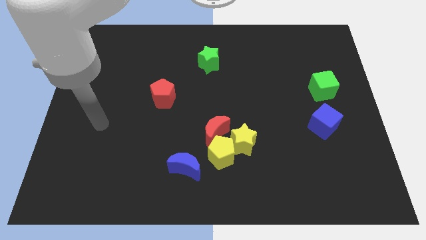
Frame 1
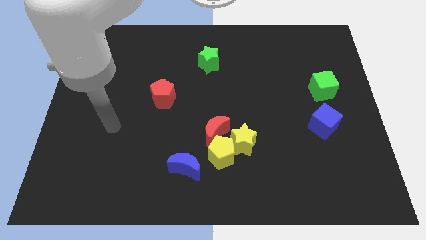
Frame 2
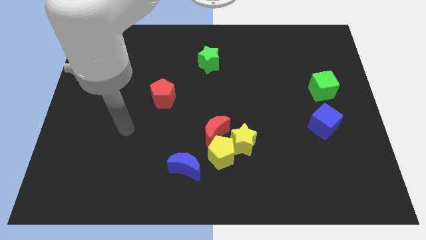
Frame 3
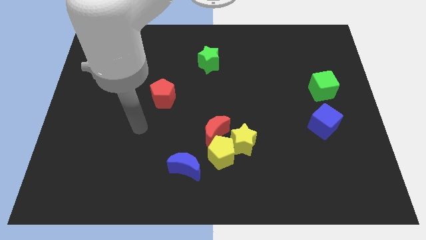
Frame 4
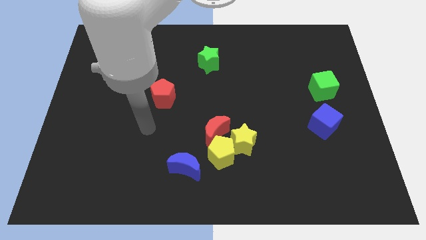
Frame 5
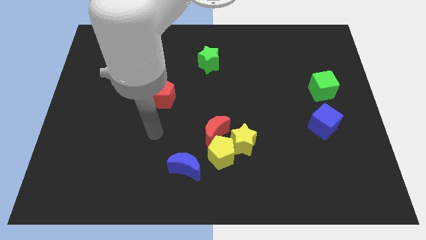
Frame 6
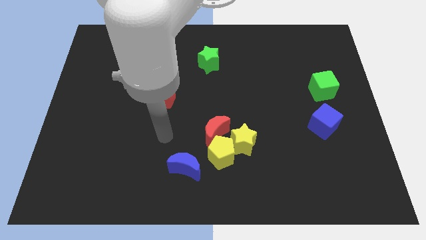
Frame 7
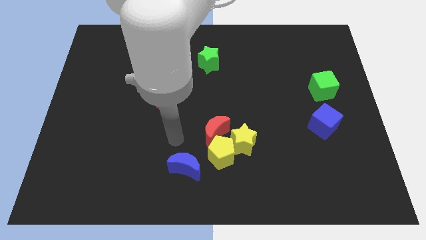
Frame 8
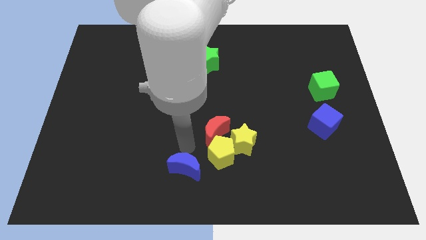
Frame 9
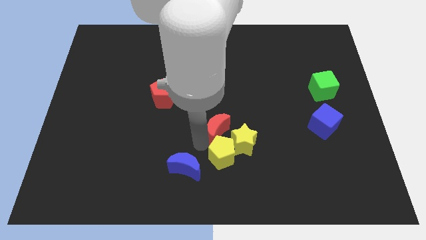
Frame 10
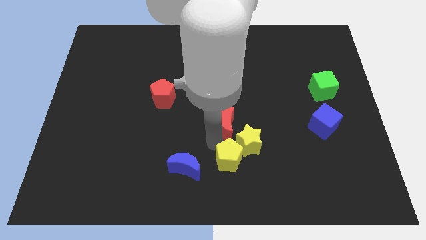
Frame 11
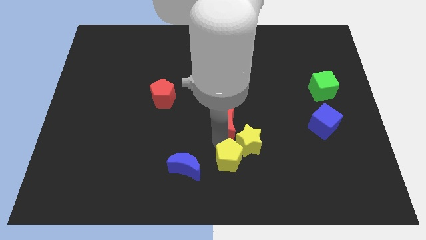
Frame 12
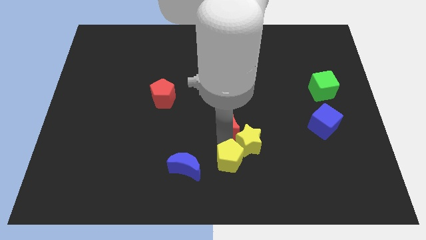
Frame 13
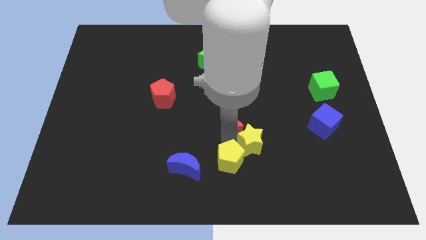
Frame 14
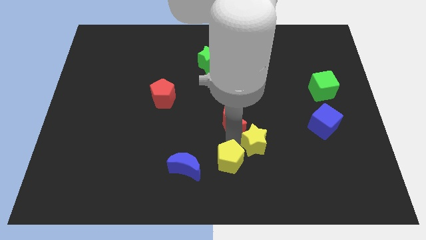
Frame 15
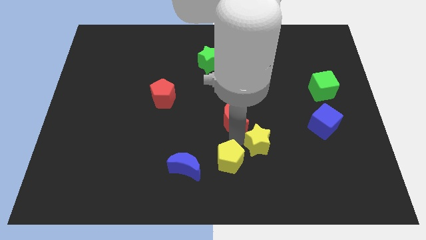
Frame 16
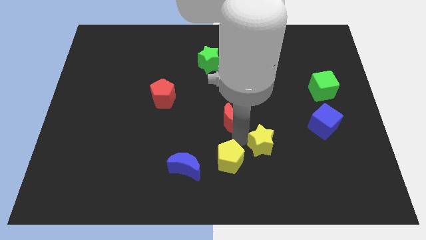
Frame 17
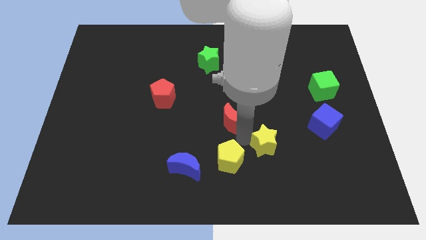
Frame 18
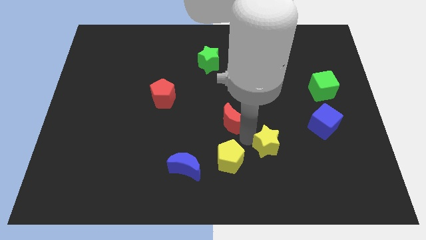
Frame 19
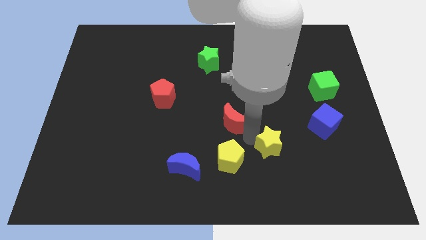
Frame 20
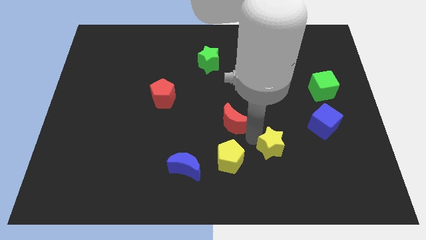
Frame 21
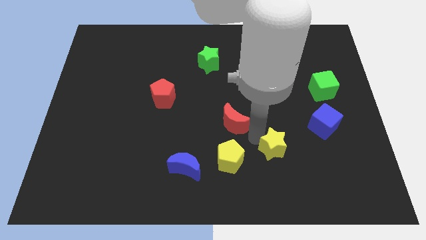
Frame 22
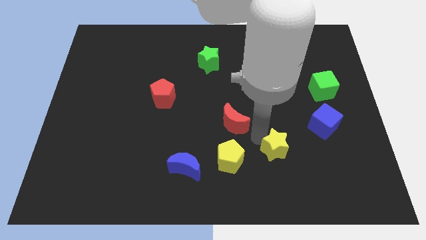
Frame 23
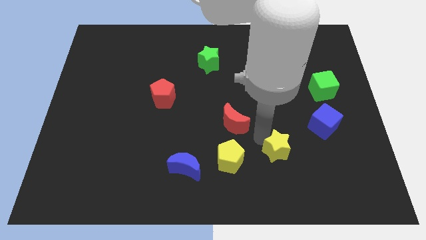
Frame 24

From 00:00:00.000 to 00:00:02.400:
move the yellow star away from the yellow pentagon and red moon

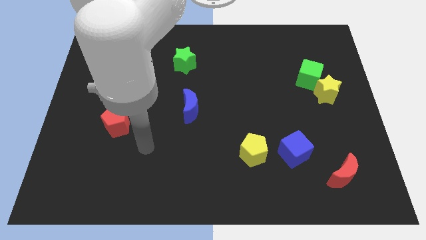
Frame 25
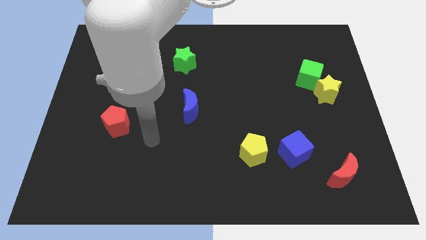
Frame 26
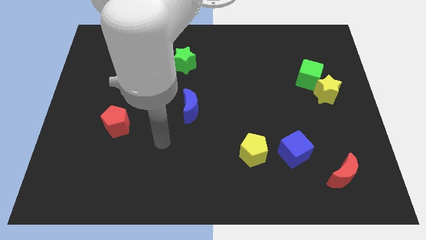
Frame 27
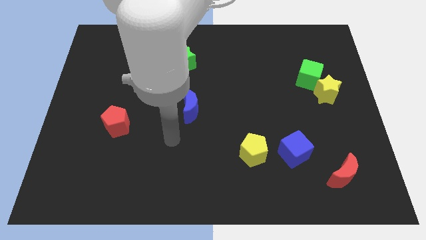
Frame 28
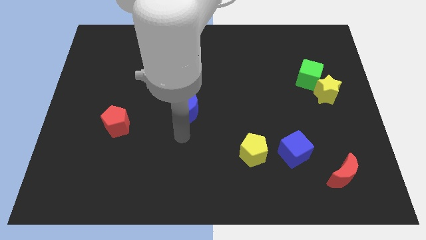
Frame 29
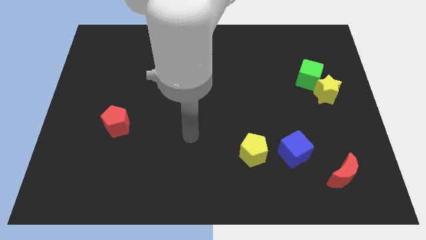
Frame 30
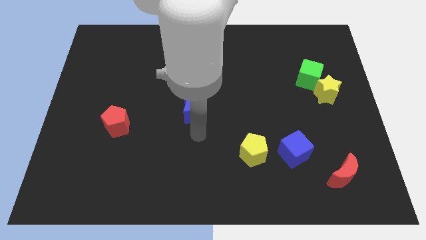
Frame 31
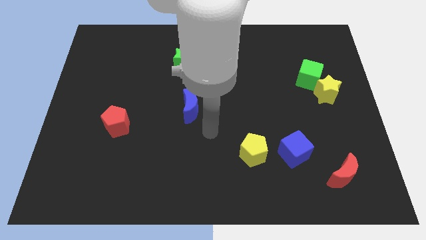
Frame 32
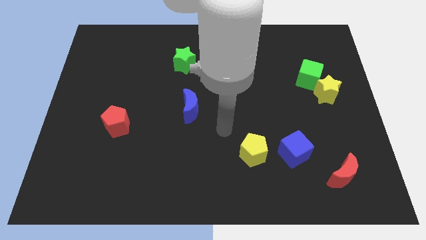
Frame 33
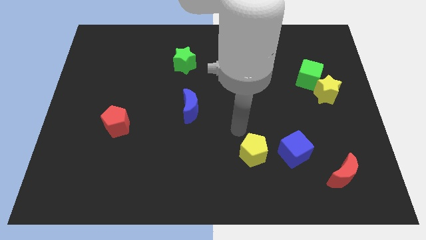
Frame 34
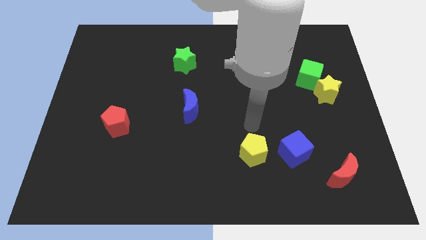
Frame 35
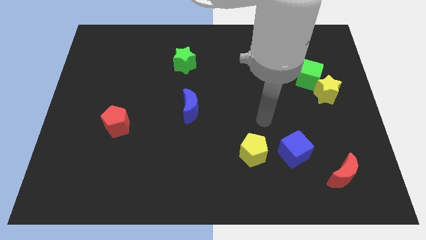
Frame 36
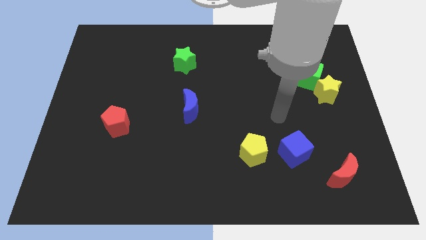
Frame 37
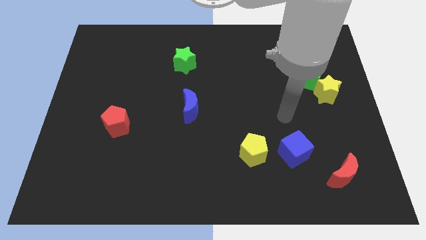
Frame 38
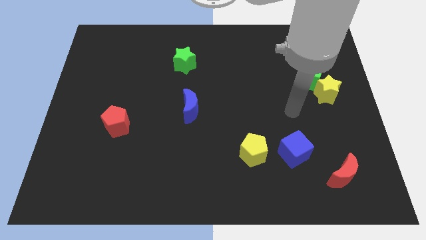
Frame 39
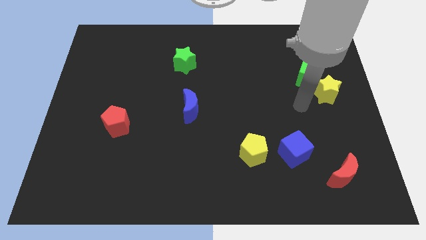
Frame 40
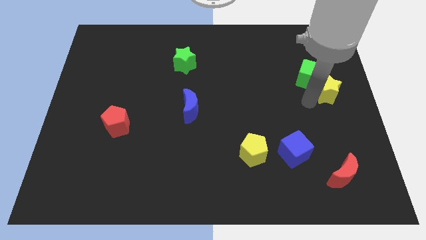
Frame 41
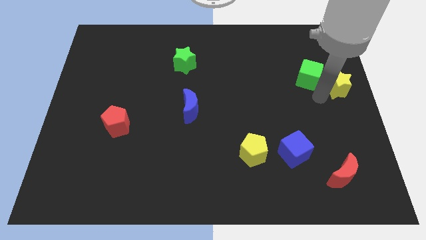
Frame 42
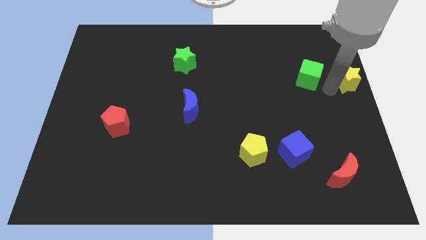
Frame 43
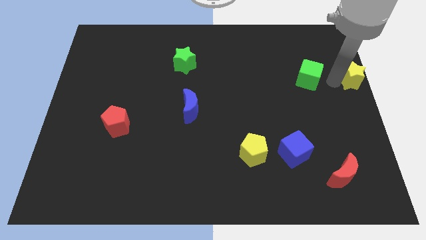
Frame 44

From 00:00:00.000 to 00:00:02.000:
move the green cube away from the yellow star

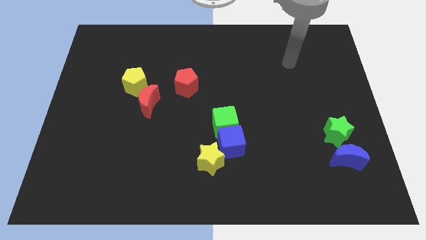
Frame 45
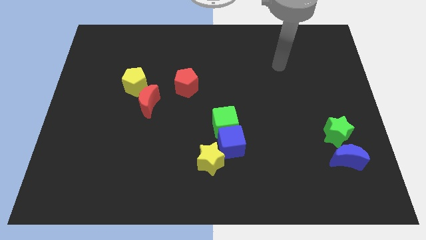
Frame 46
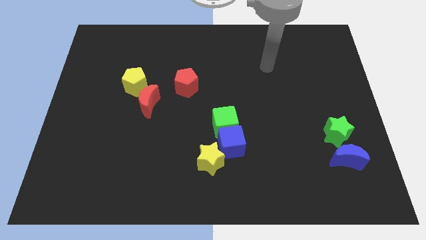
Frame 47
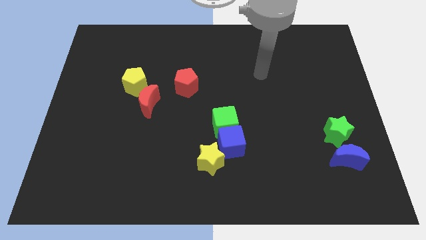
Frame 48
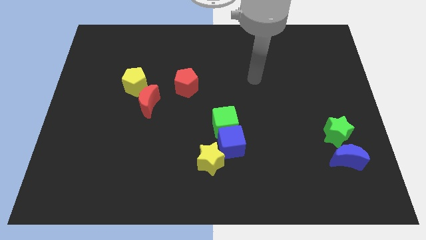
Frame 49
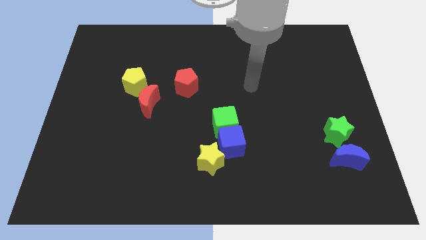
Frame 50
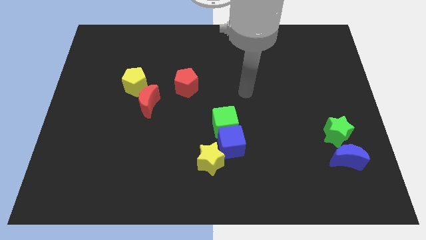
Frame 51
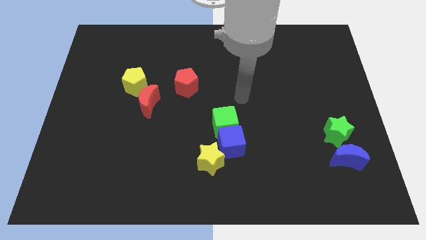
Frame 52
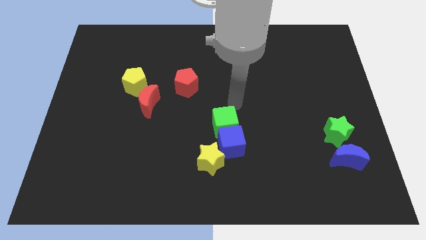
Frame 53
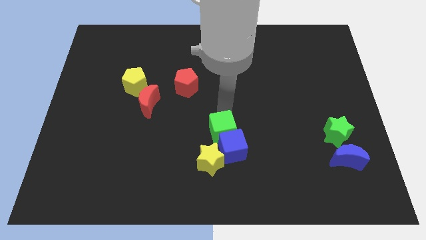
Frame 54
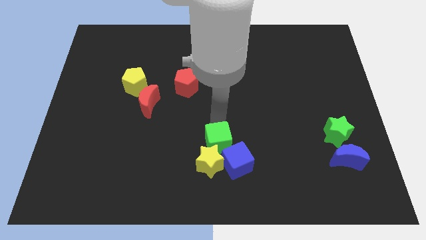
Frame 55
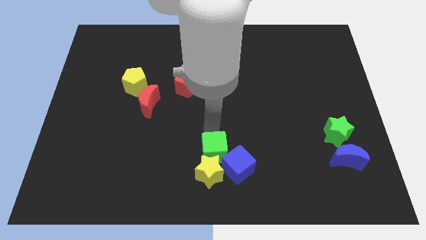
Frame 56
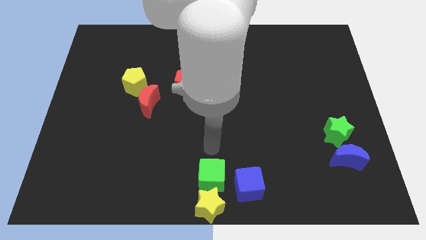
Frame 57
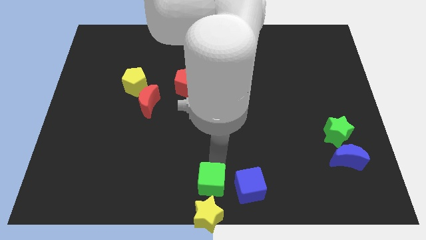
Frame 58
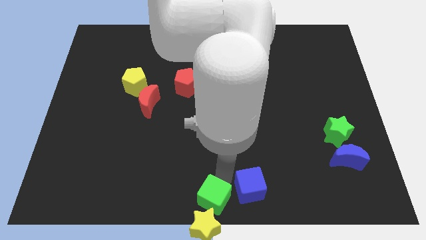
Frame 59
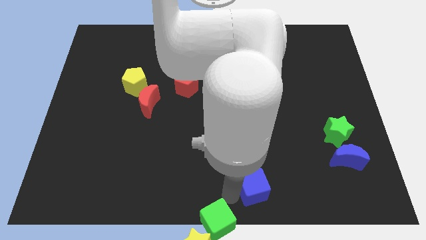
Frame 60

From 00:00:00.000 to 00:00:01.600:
move the blue cube away from the green cube and yellow star

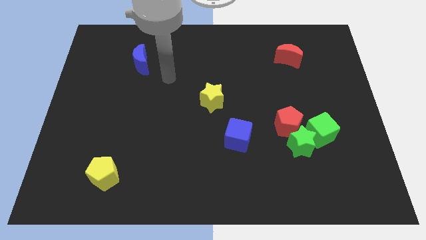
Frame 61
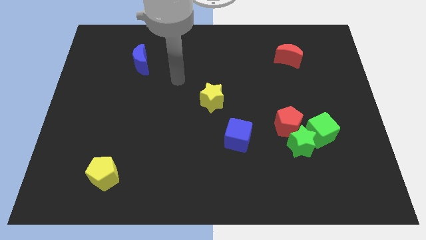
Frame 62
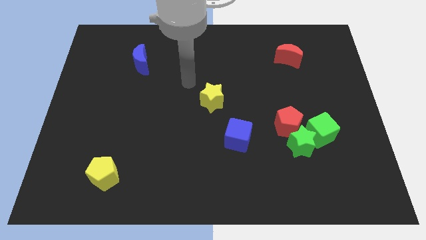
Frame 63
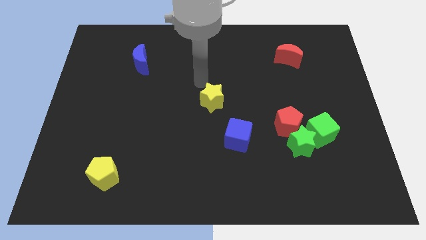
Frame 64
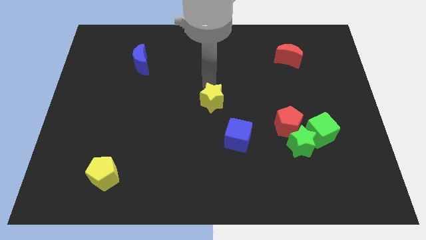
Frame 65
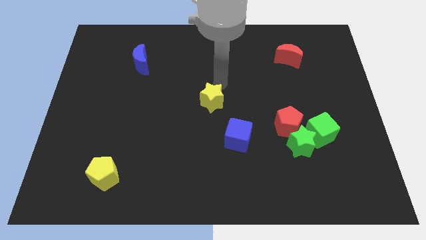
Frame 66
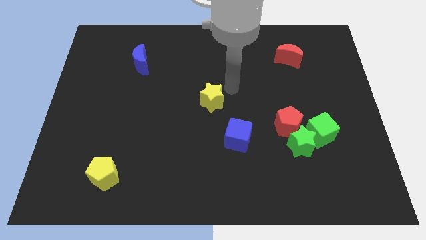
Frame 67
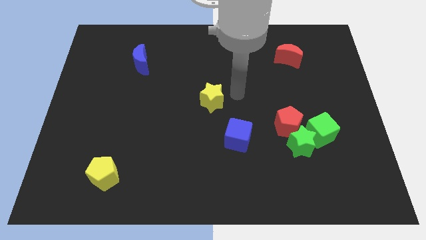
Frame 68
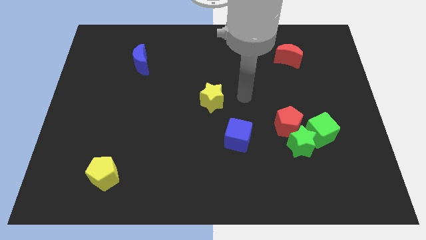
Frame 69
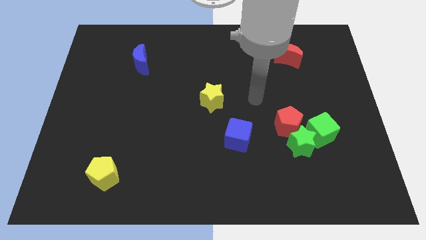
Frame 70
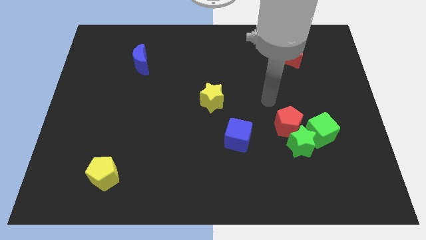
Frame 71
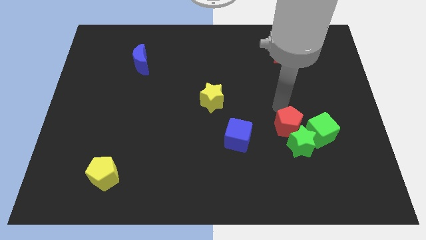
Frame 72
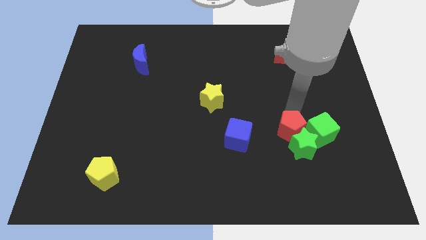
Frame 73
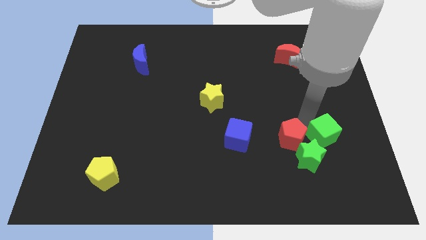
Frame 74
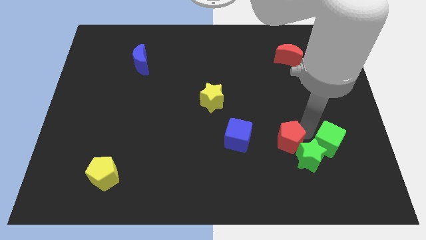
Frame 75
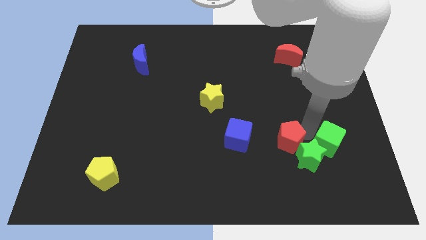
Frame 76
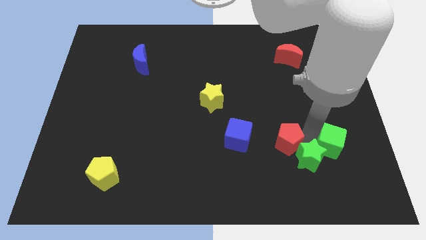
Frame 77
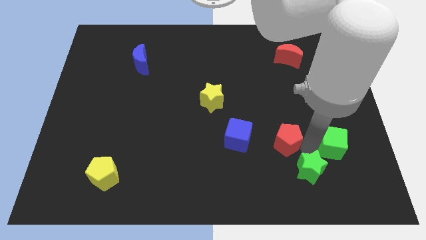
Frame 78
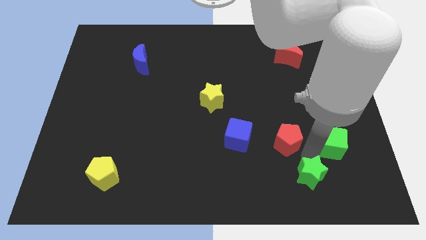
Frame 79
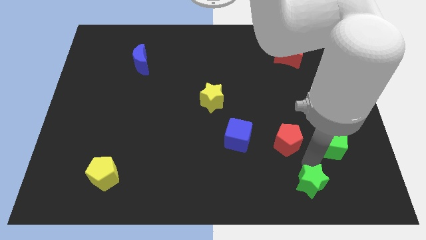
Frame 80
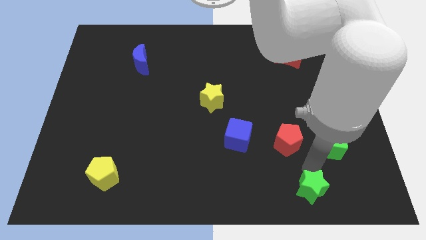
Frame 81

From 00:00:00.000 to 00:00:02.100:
move the green star away from the green cube and red pentagon

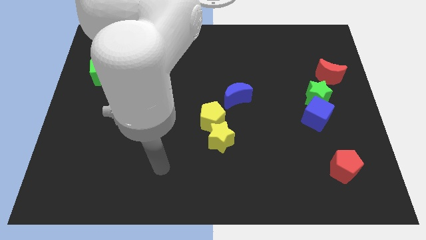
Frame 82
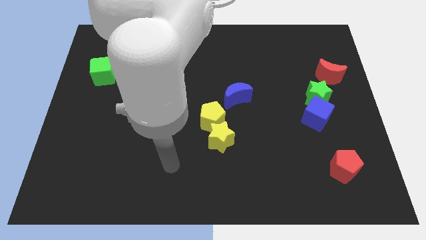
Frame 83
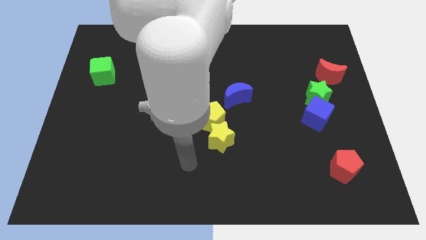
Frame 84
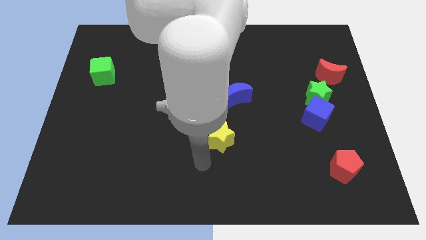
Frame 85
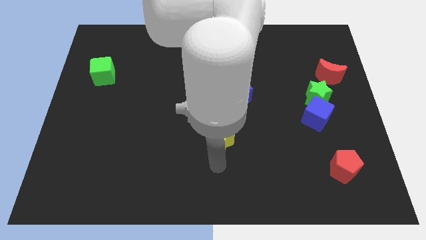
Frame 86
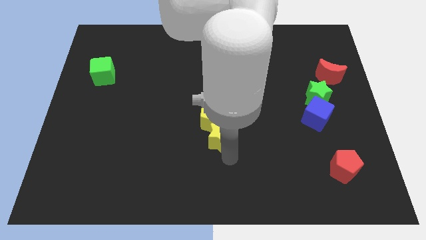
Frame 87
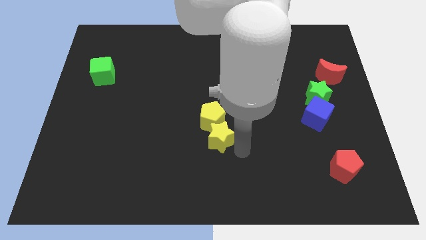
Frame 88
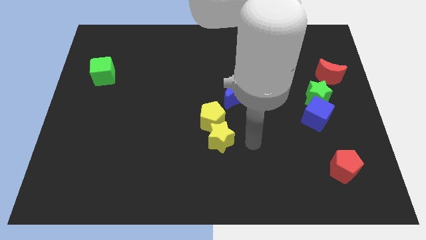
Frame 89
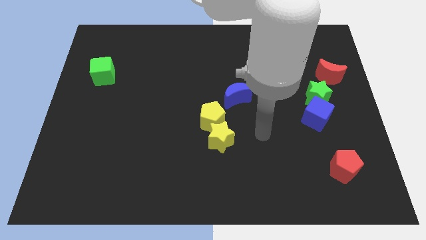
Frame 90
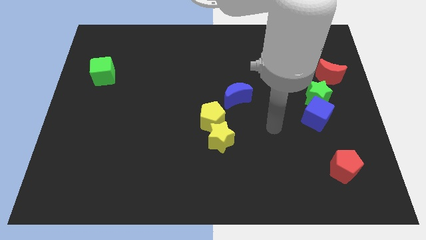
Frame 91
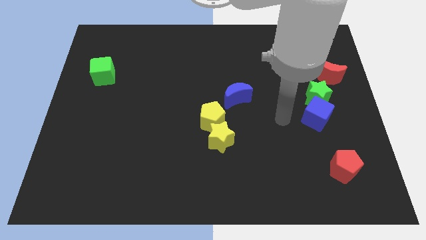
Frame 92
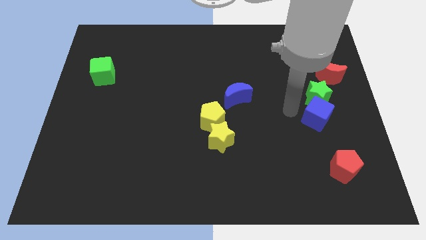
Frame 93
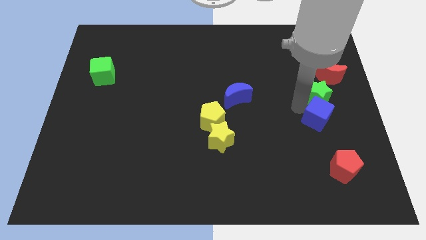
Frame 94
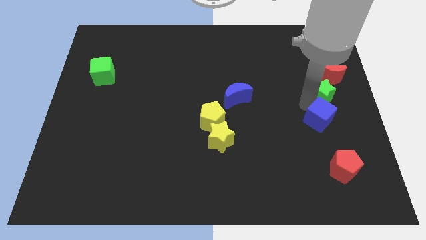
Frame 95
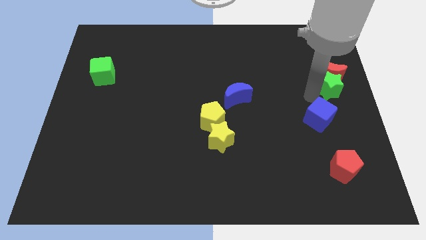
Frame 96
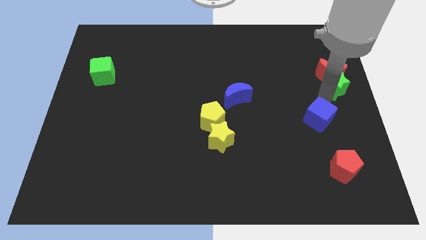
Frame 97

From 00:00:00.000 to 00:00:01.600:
move the blue cube away from the green star
